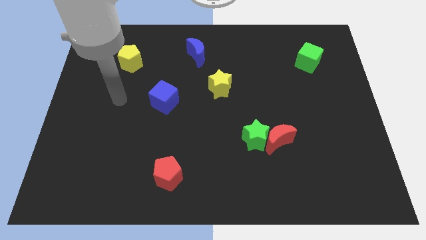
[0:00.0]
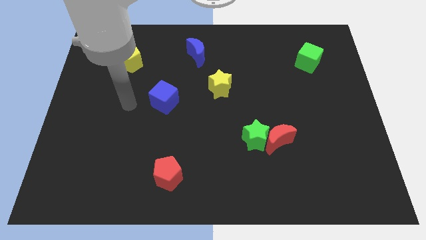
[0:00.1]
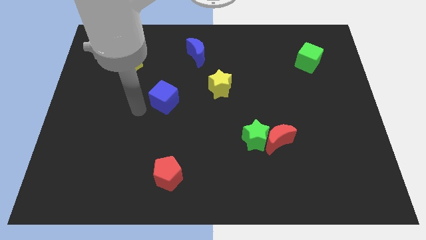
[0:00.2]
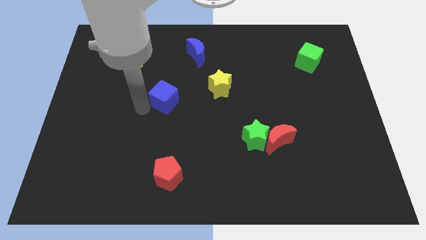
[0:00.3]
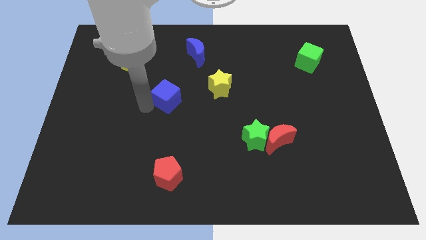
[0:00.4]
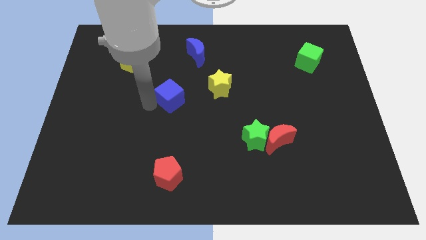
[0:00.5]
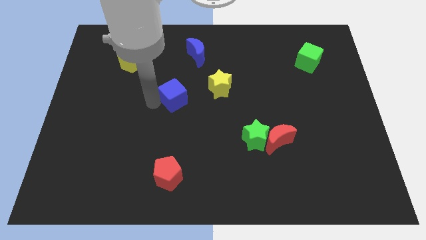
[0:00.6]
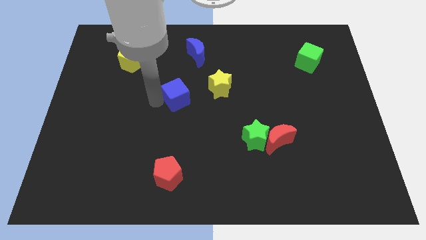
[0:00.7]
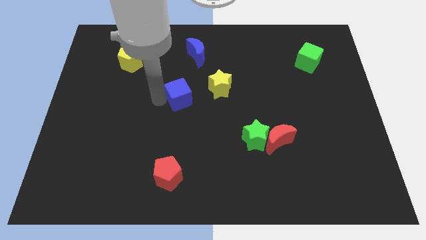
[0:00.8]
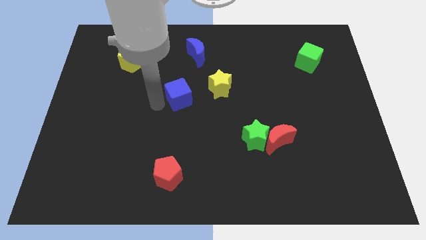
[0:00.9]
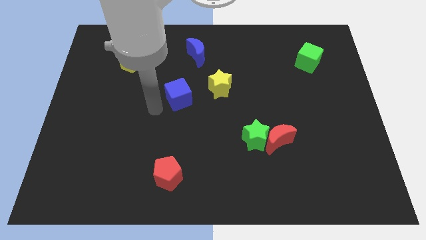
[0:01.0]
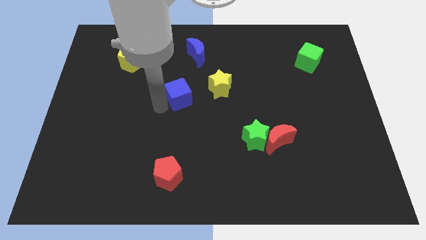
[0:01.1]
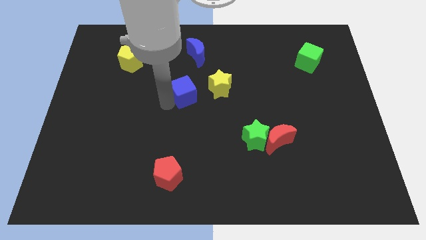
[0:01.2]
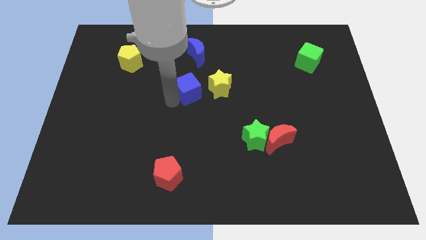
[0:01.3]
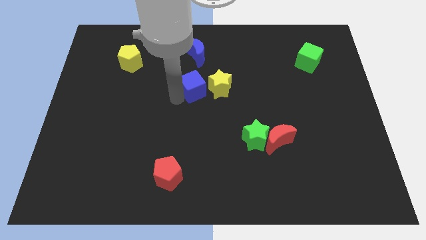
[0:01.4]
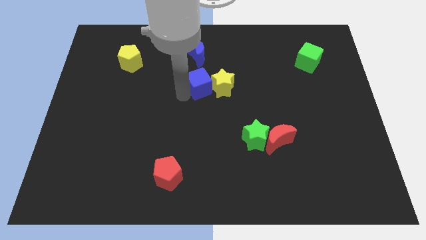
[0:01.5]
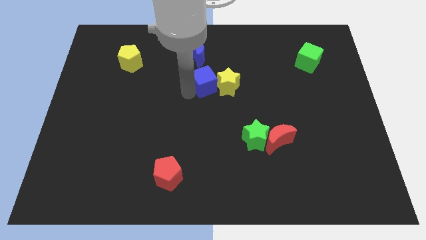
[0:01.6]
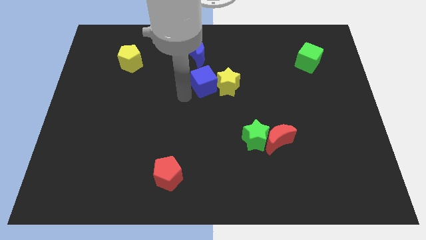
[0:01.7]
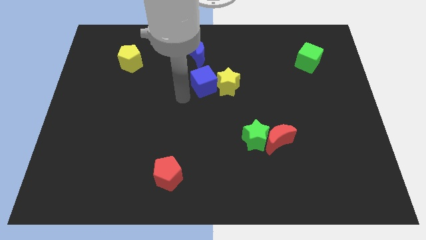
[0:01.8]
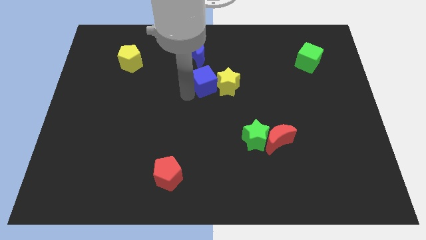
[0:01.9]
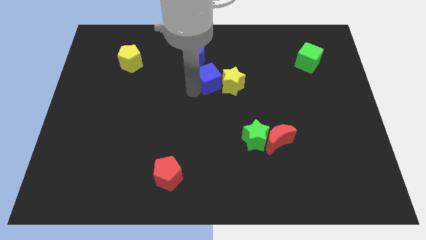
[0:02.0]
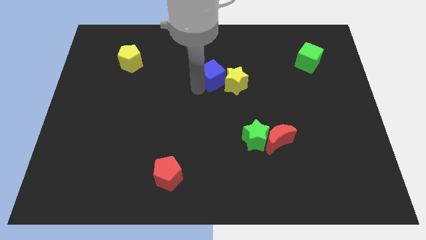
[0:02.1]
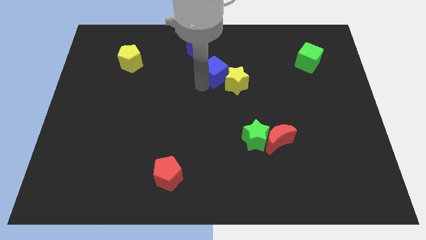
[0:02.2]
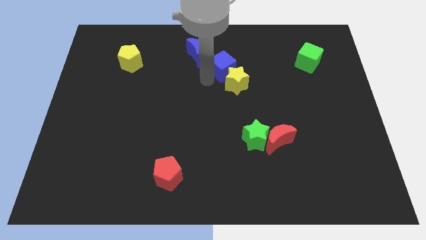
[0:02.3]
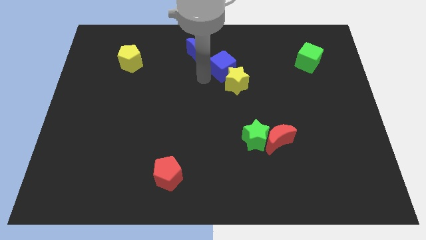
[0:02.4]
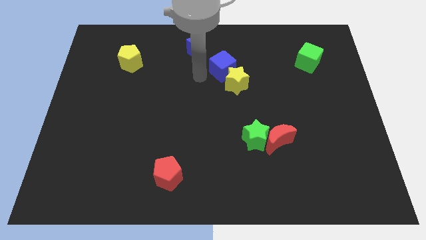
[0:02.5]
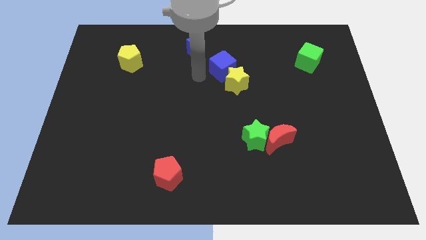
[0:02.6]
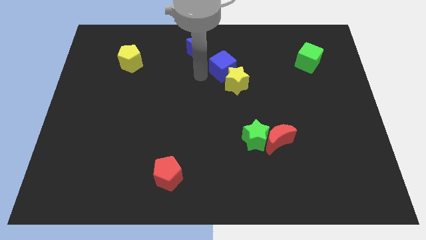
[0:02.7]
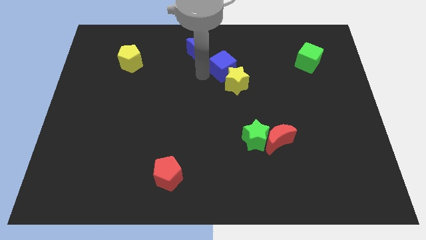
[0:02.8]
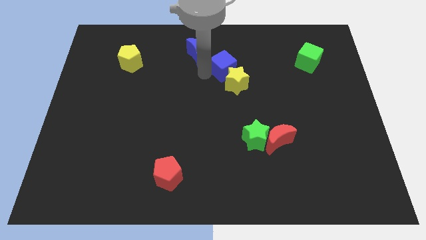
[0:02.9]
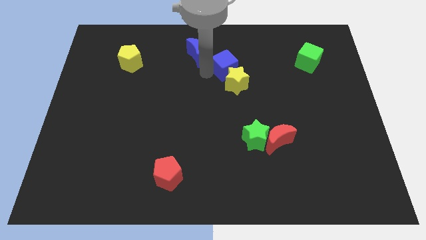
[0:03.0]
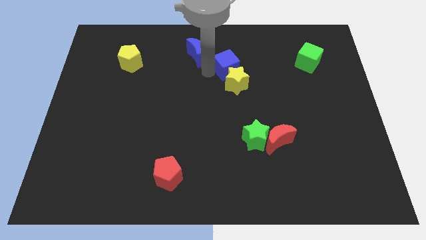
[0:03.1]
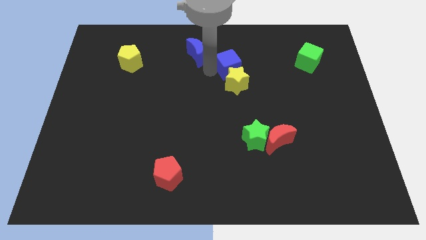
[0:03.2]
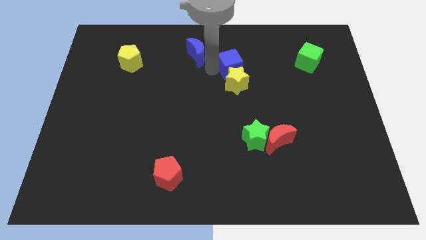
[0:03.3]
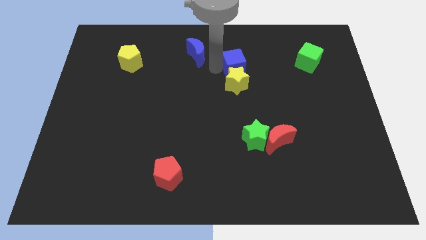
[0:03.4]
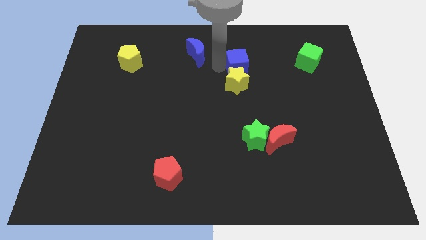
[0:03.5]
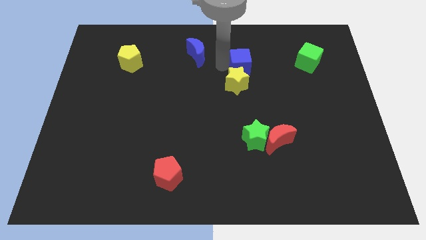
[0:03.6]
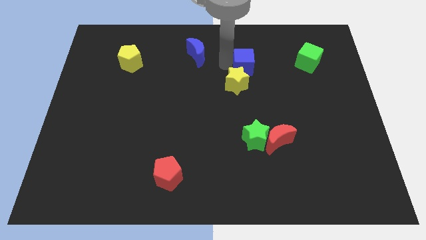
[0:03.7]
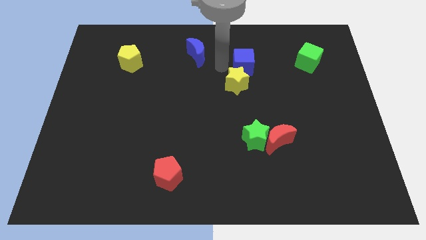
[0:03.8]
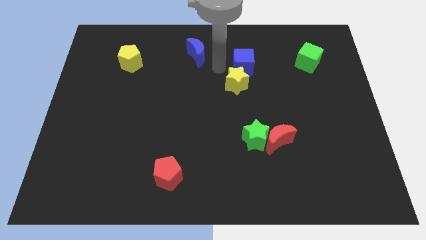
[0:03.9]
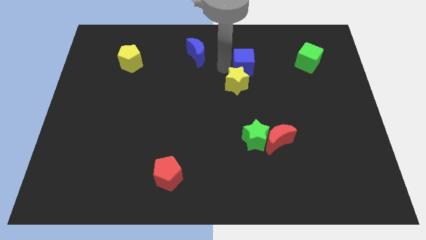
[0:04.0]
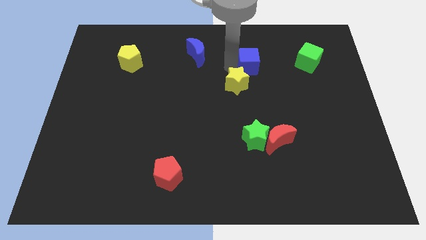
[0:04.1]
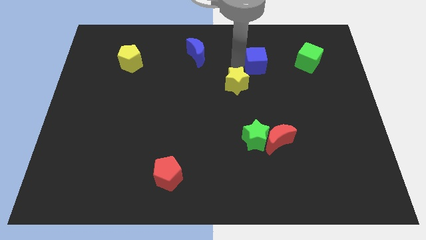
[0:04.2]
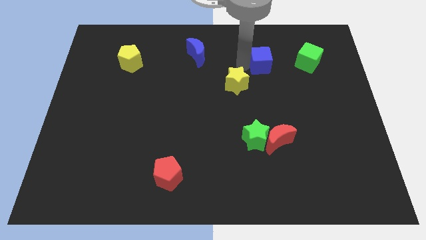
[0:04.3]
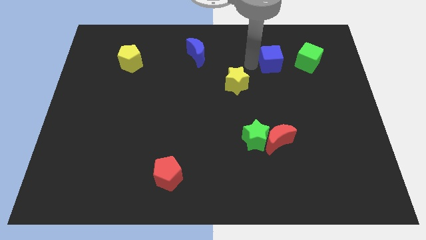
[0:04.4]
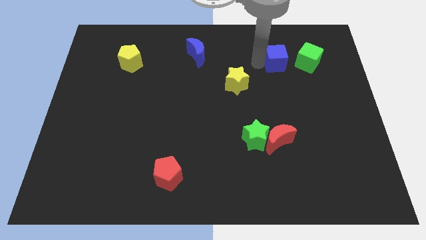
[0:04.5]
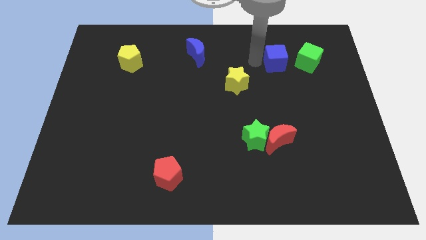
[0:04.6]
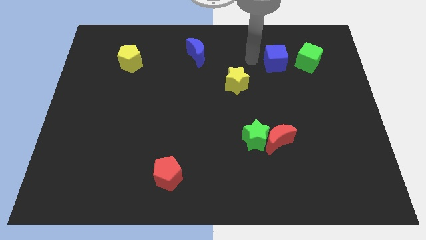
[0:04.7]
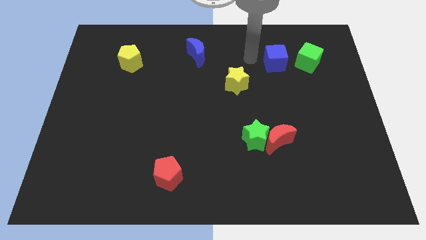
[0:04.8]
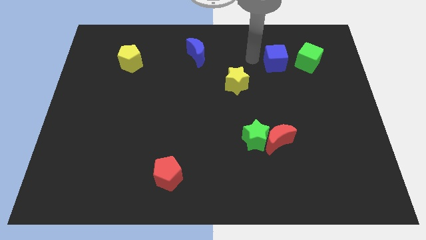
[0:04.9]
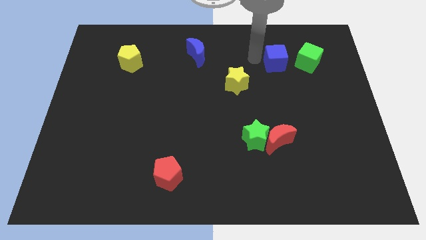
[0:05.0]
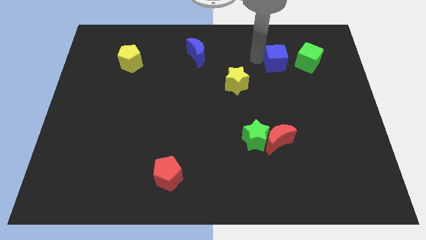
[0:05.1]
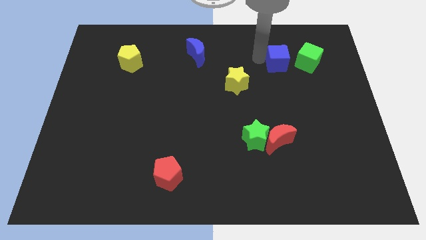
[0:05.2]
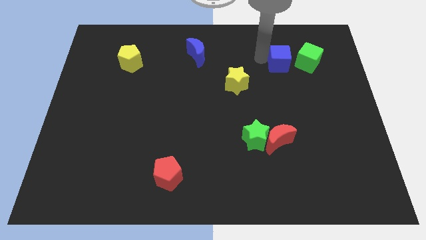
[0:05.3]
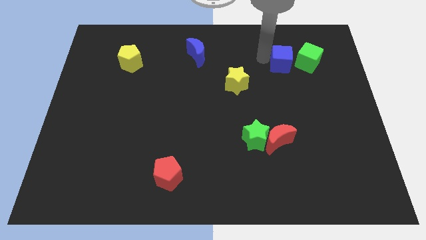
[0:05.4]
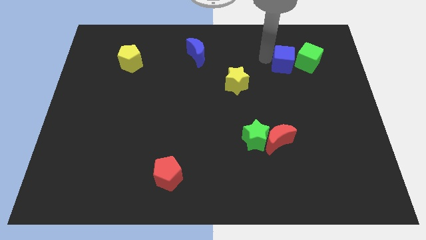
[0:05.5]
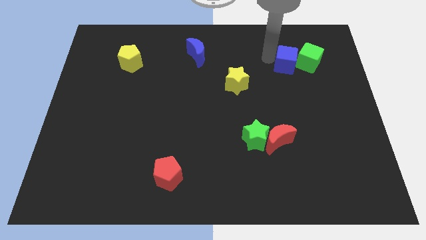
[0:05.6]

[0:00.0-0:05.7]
move the blue cube towards the green cube

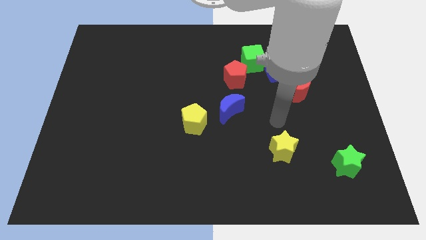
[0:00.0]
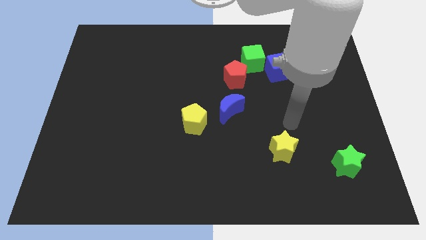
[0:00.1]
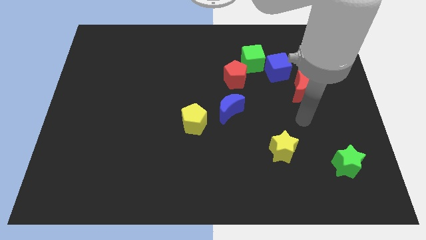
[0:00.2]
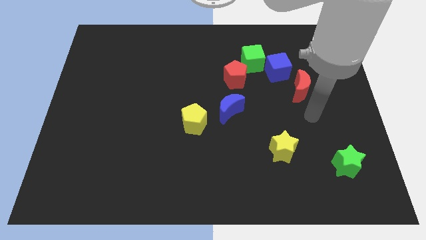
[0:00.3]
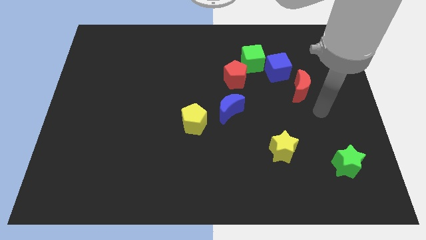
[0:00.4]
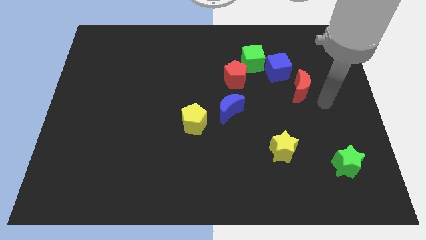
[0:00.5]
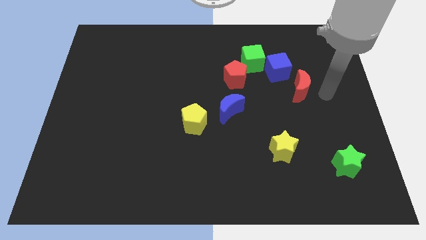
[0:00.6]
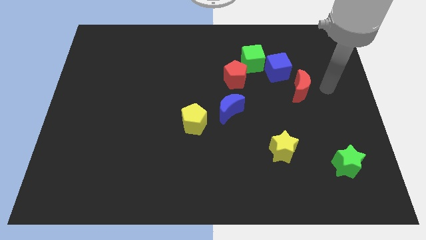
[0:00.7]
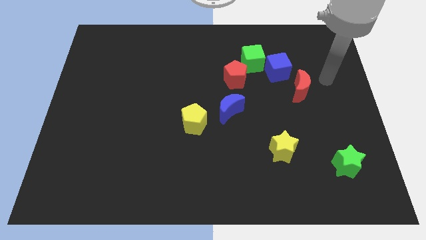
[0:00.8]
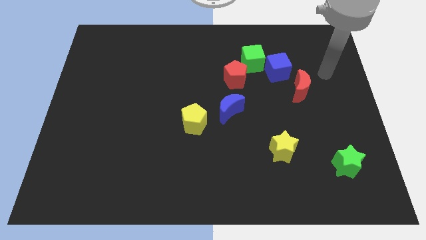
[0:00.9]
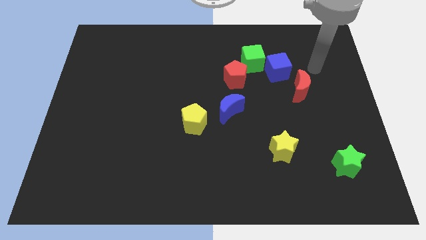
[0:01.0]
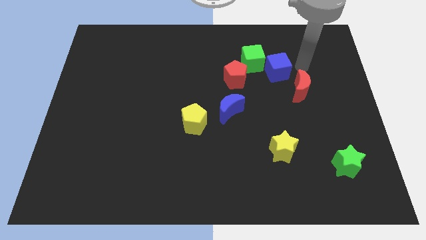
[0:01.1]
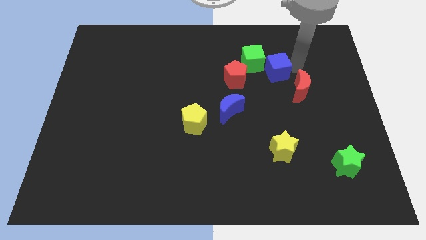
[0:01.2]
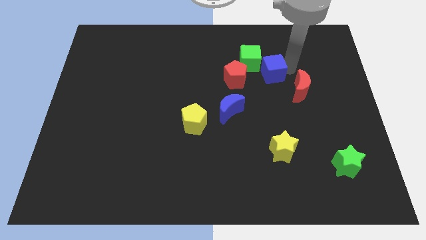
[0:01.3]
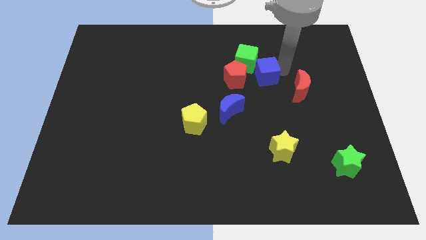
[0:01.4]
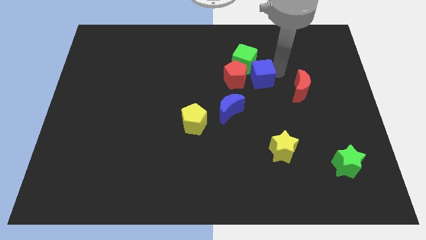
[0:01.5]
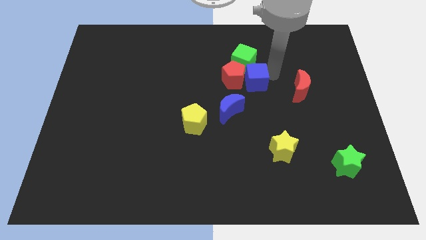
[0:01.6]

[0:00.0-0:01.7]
push the blue cube towards the red pentagon

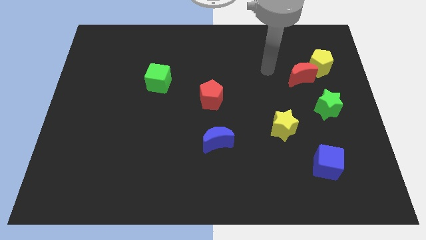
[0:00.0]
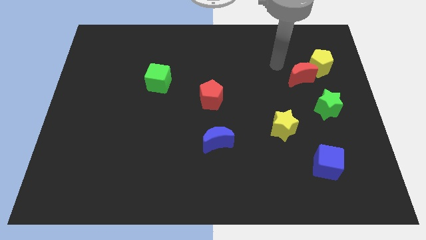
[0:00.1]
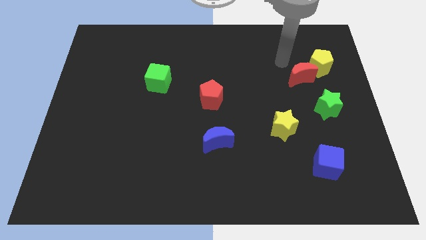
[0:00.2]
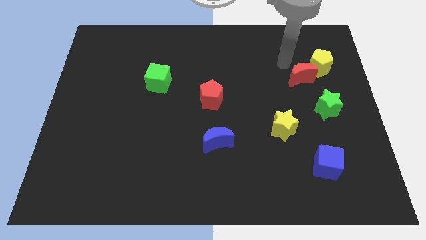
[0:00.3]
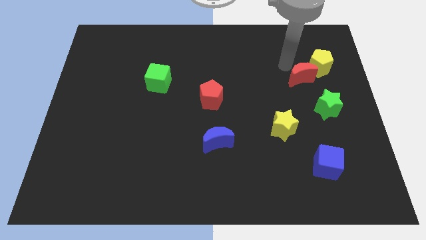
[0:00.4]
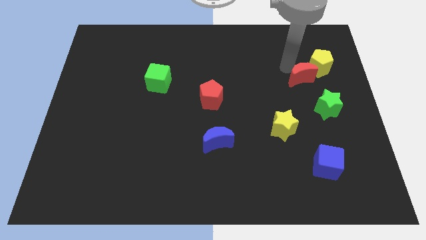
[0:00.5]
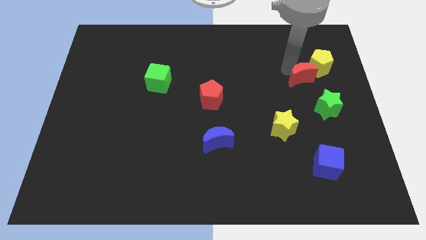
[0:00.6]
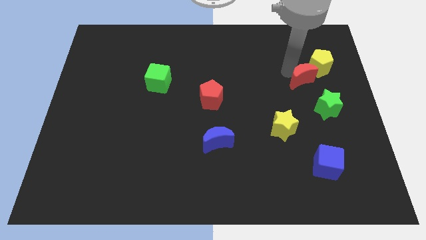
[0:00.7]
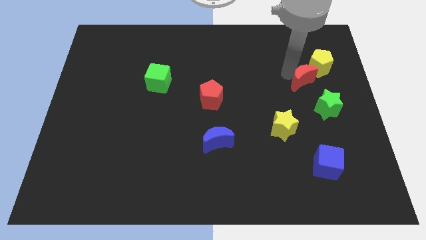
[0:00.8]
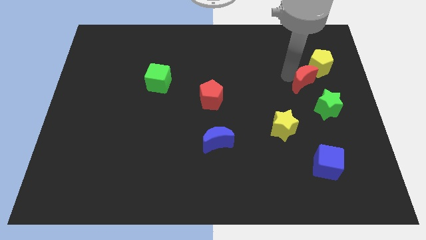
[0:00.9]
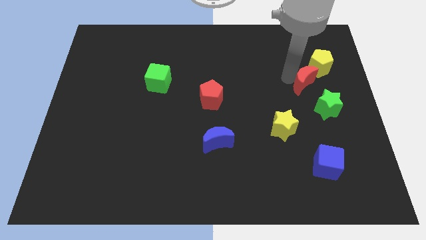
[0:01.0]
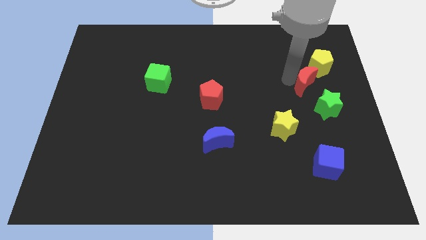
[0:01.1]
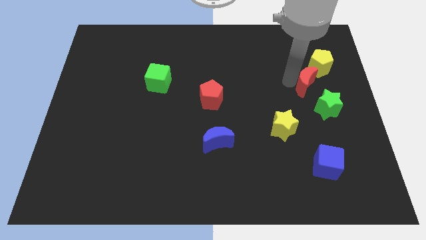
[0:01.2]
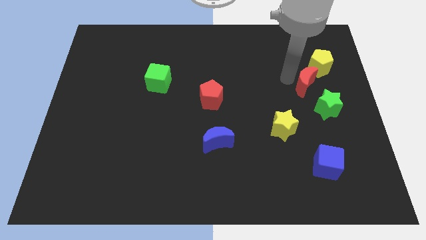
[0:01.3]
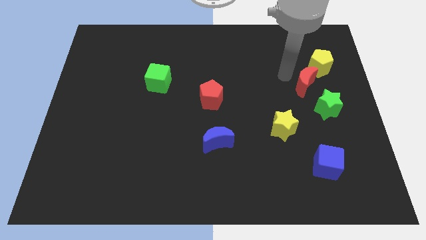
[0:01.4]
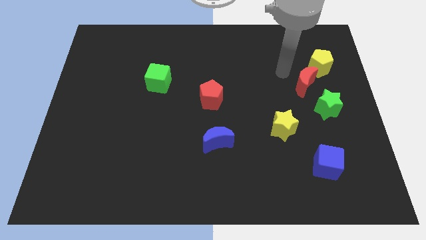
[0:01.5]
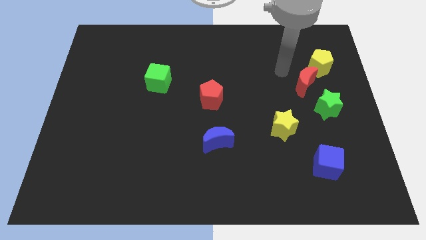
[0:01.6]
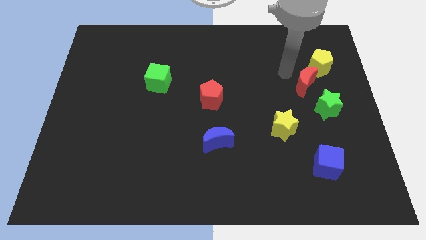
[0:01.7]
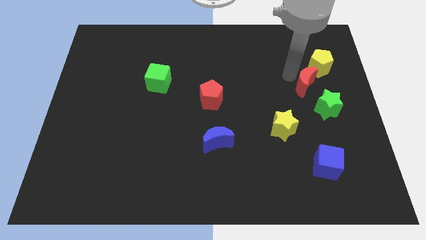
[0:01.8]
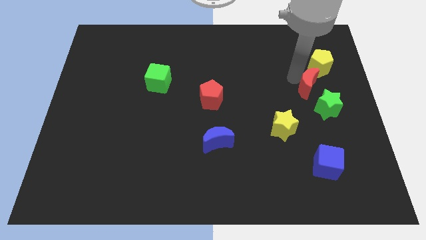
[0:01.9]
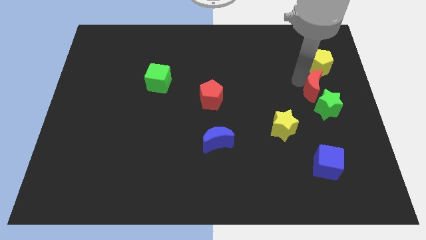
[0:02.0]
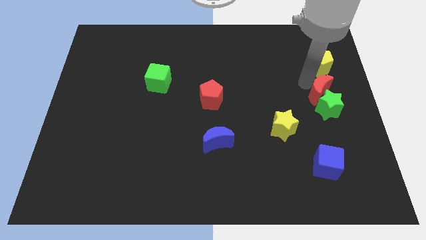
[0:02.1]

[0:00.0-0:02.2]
put the red moon towards the green star
